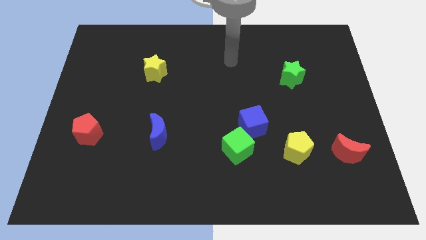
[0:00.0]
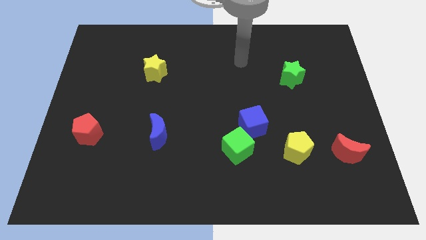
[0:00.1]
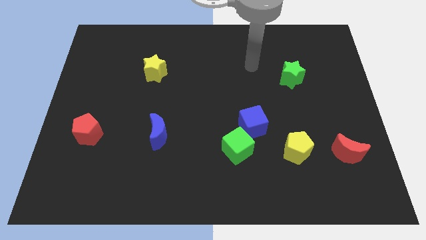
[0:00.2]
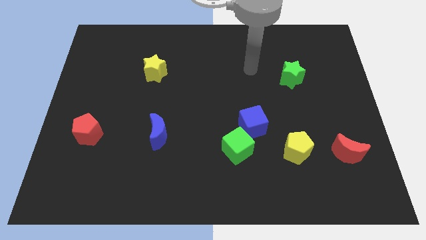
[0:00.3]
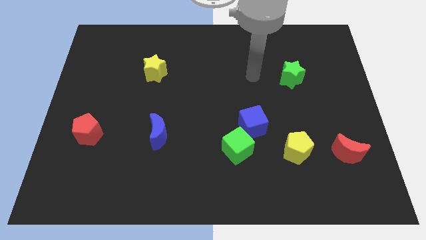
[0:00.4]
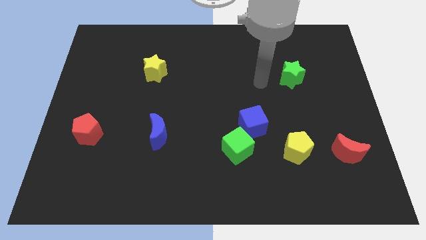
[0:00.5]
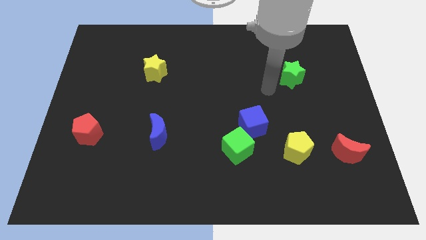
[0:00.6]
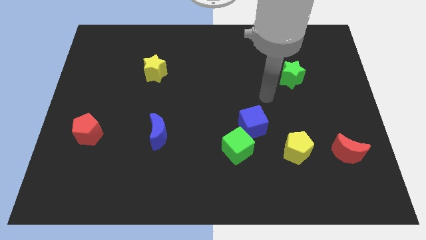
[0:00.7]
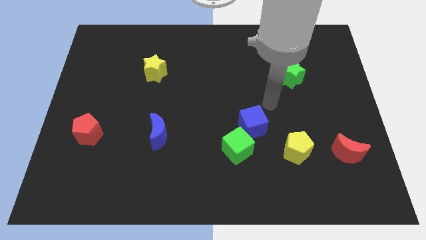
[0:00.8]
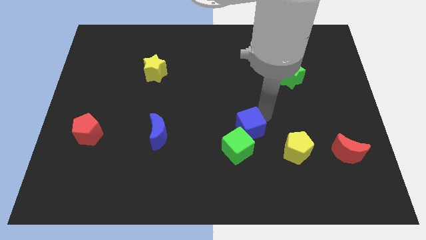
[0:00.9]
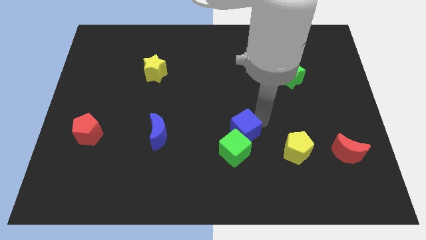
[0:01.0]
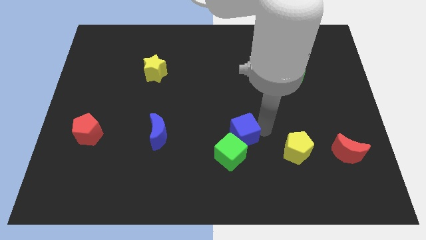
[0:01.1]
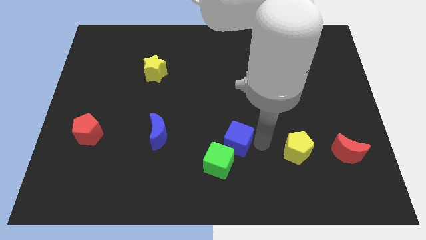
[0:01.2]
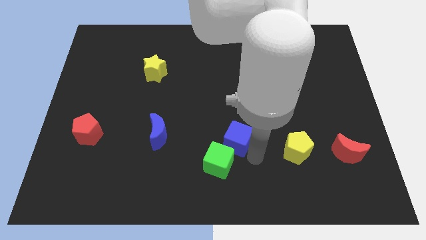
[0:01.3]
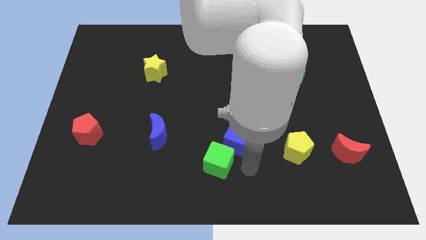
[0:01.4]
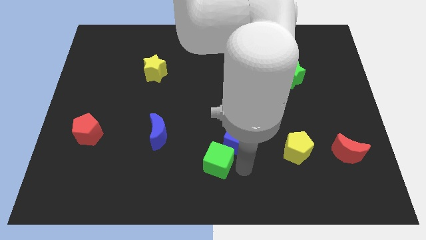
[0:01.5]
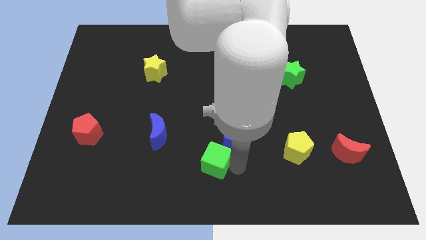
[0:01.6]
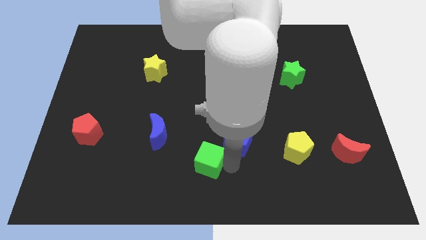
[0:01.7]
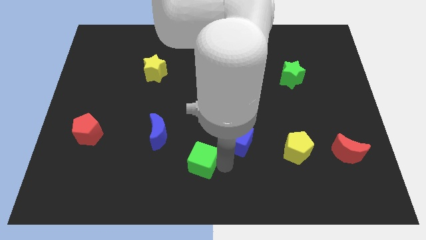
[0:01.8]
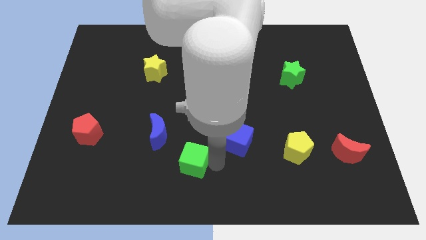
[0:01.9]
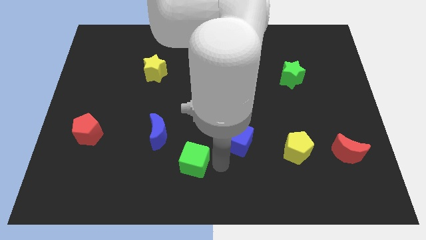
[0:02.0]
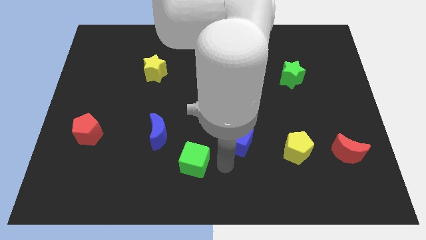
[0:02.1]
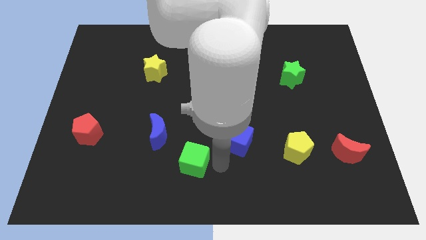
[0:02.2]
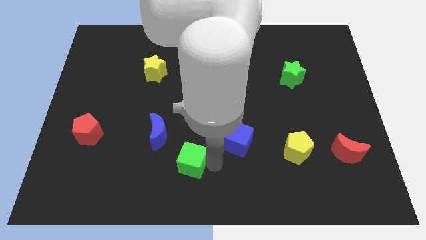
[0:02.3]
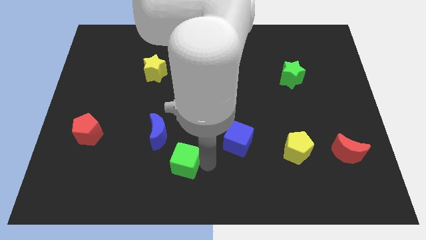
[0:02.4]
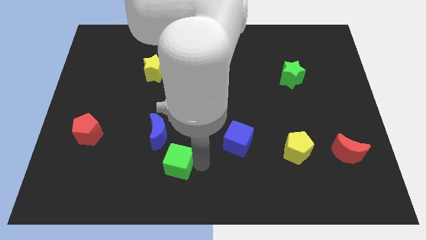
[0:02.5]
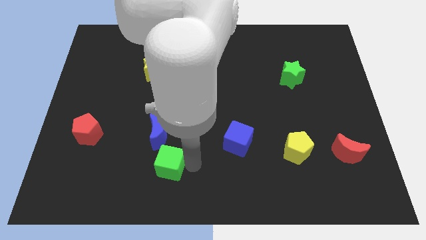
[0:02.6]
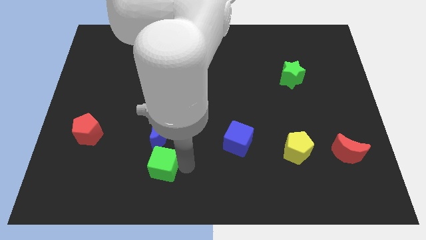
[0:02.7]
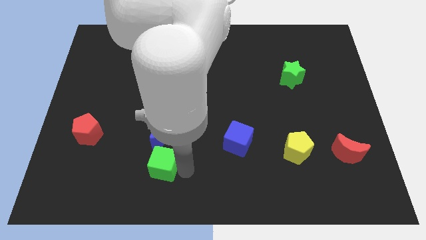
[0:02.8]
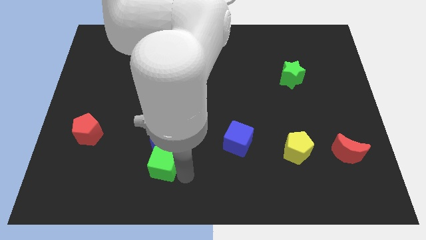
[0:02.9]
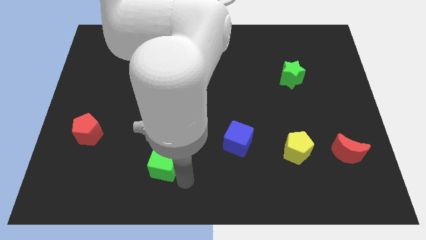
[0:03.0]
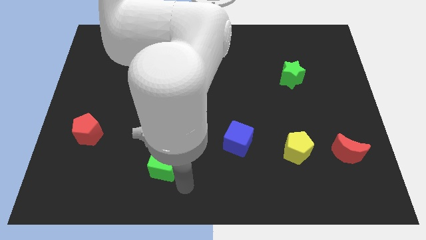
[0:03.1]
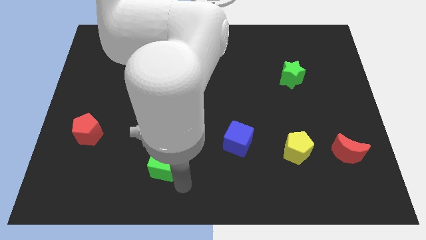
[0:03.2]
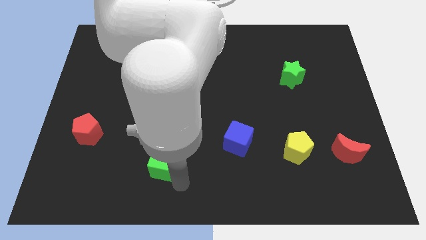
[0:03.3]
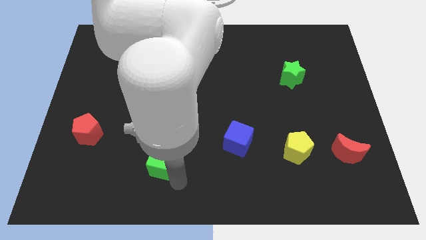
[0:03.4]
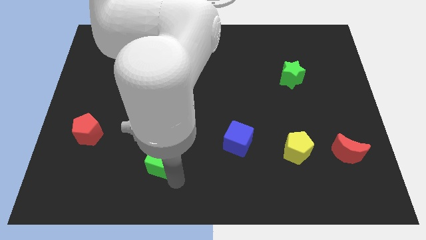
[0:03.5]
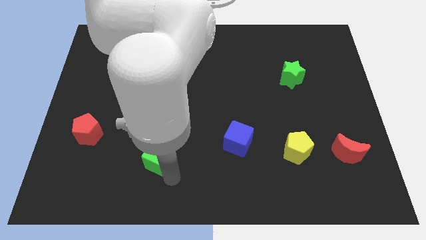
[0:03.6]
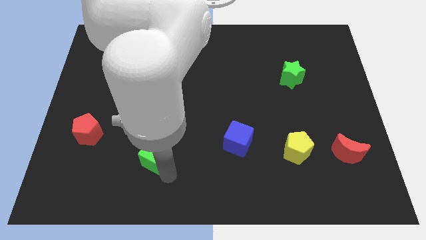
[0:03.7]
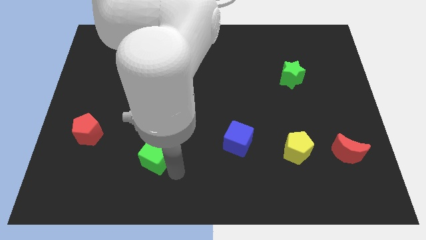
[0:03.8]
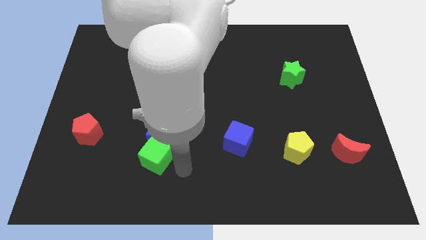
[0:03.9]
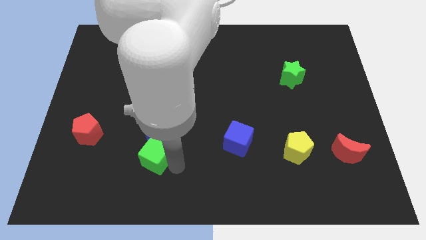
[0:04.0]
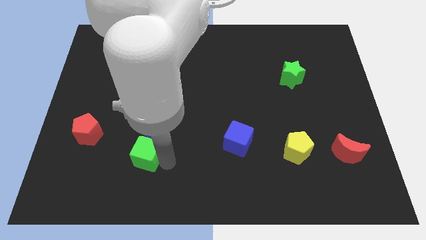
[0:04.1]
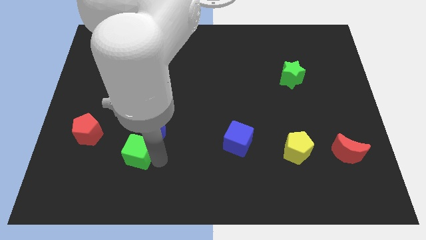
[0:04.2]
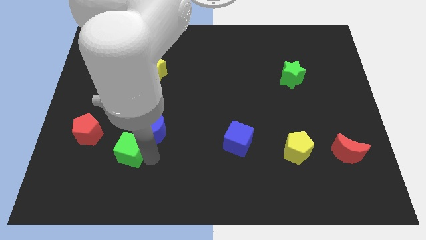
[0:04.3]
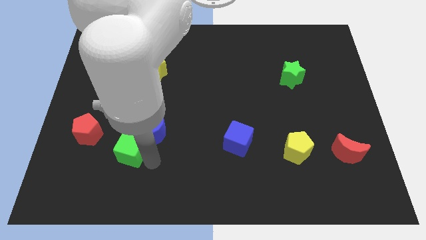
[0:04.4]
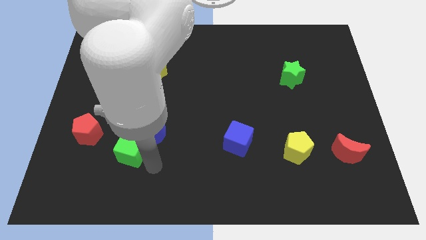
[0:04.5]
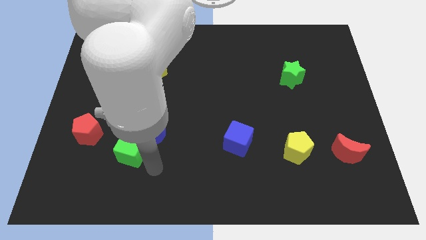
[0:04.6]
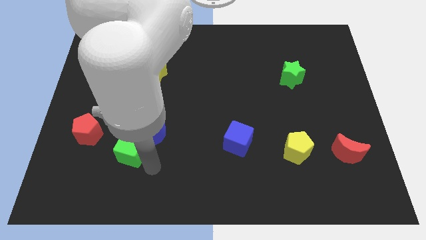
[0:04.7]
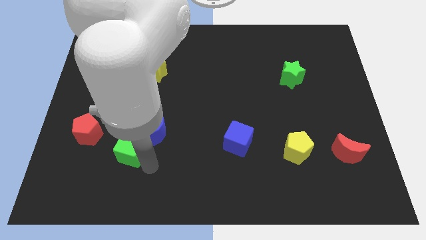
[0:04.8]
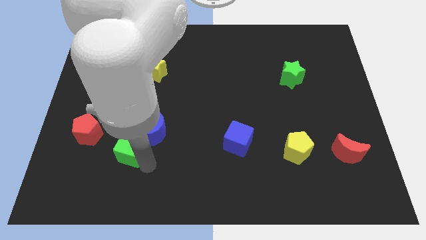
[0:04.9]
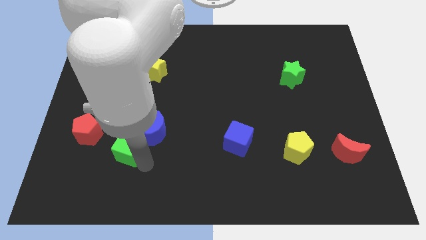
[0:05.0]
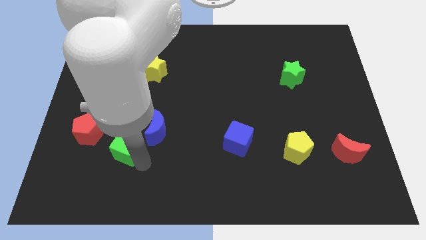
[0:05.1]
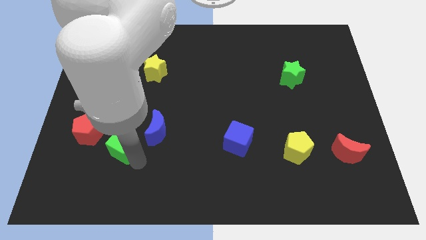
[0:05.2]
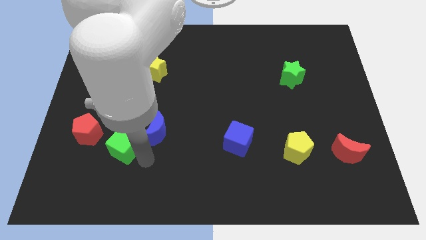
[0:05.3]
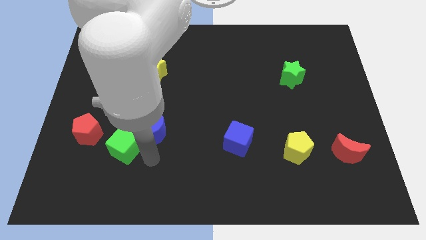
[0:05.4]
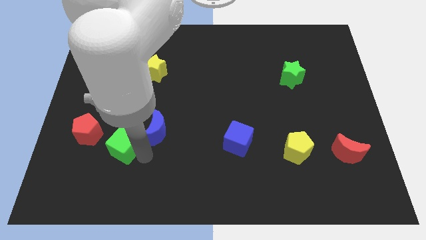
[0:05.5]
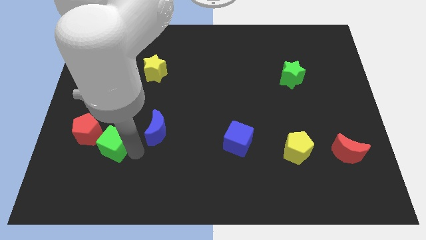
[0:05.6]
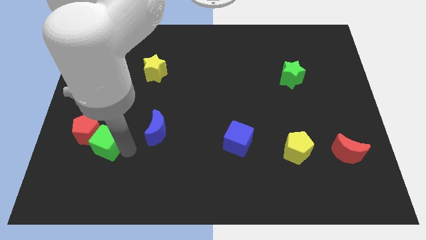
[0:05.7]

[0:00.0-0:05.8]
slide the green cube close to the red pentagon

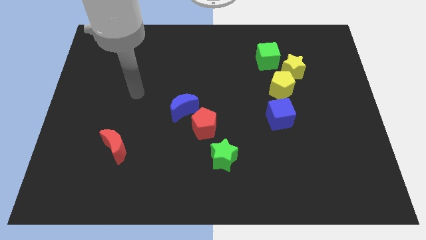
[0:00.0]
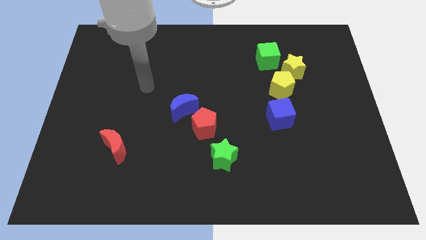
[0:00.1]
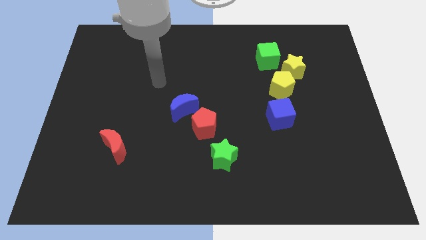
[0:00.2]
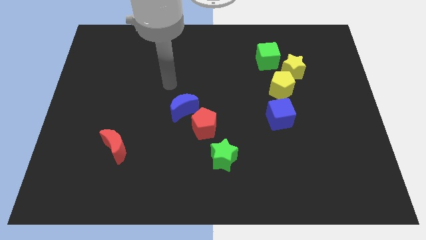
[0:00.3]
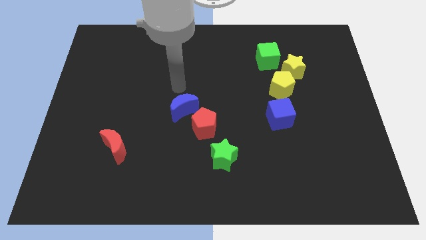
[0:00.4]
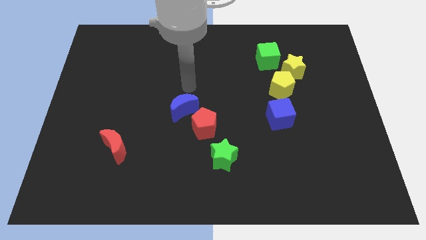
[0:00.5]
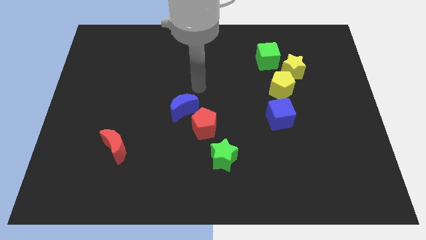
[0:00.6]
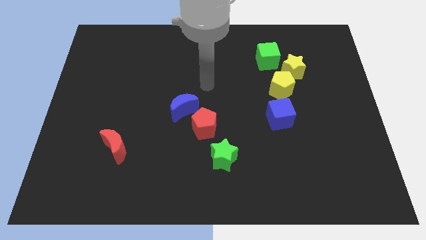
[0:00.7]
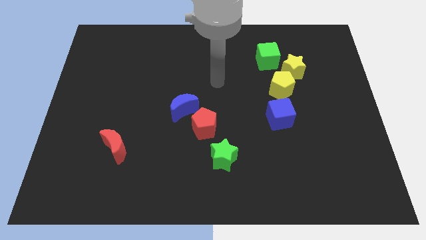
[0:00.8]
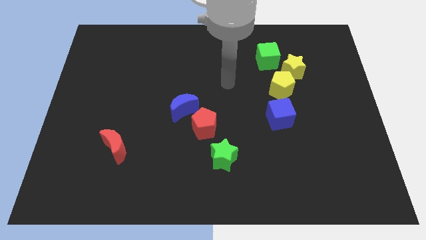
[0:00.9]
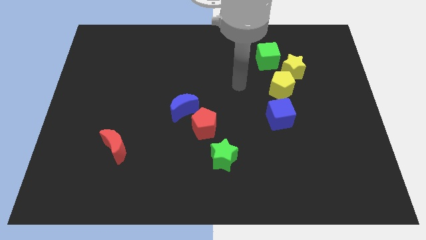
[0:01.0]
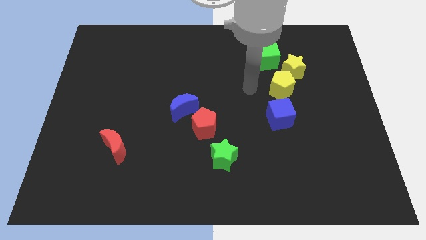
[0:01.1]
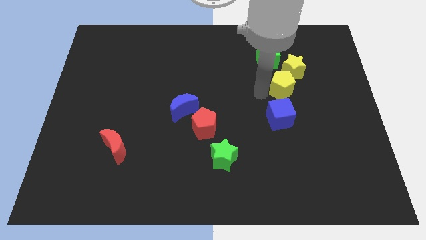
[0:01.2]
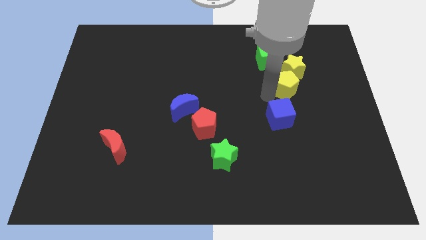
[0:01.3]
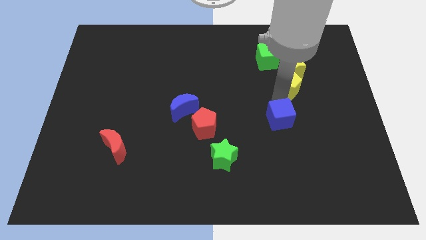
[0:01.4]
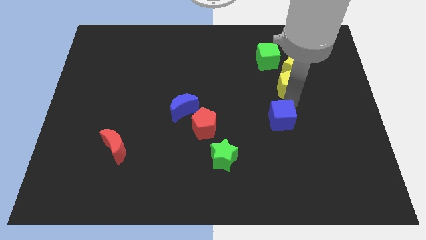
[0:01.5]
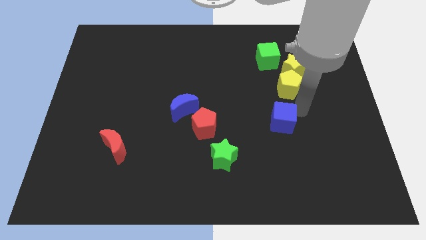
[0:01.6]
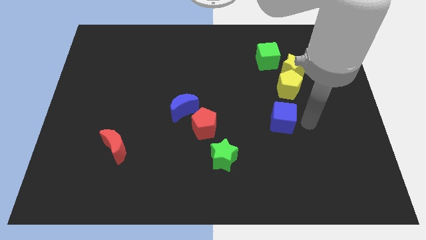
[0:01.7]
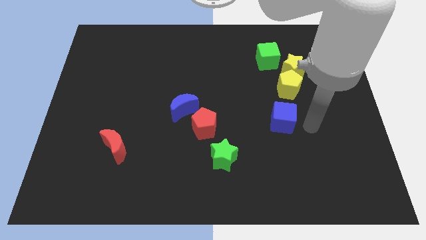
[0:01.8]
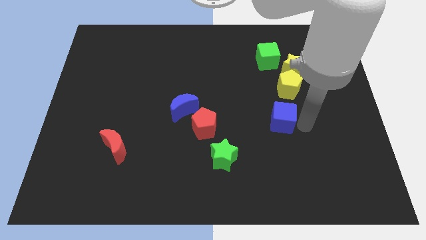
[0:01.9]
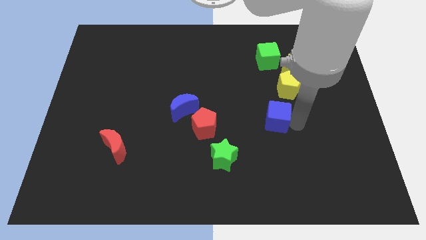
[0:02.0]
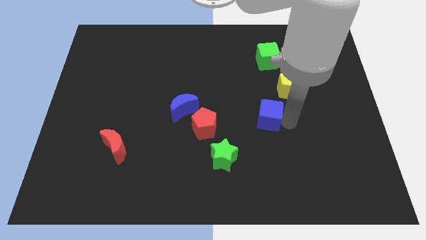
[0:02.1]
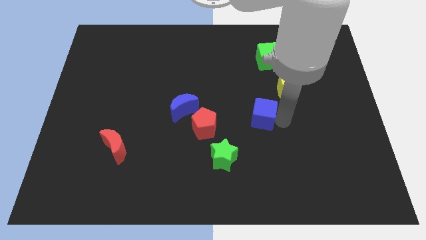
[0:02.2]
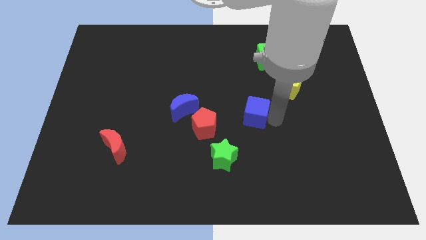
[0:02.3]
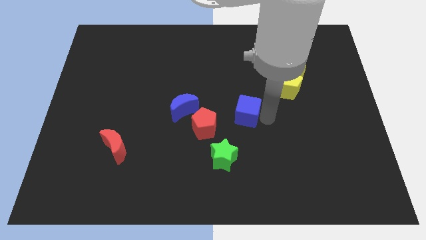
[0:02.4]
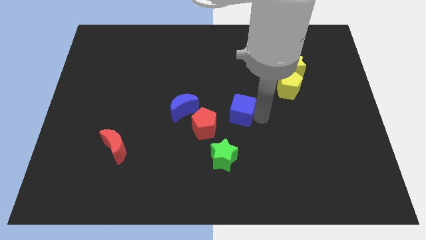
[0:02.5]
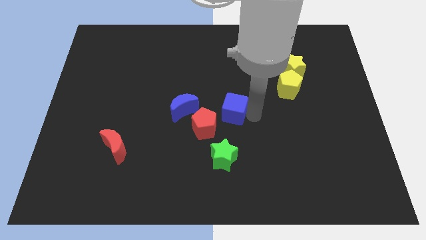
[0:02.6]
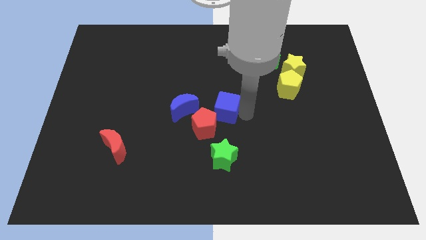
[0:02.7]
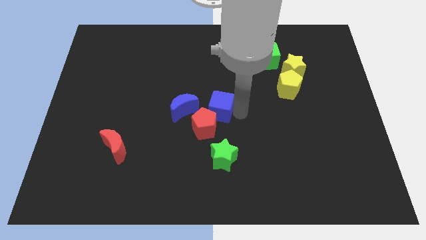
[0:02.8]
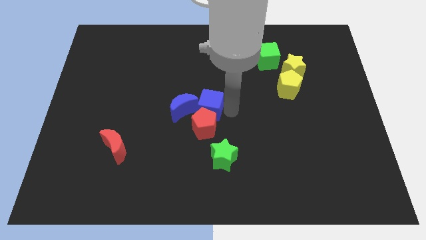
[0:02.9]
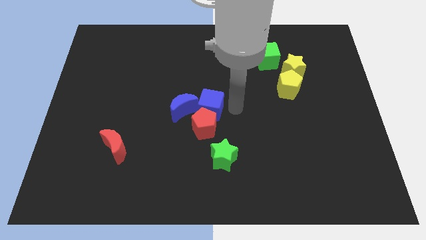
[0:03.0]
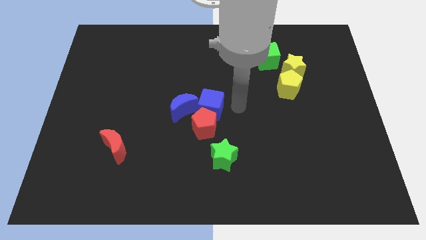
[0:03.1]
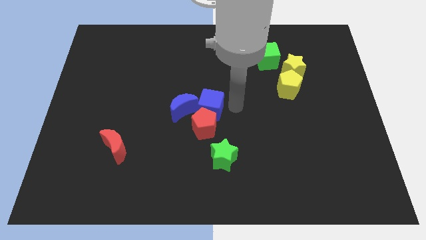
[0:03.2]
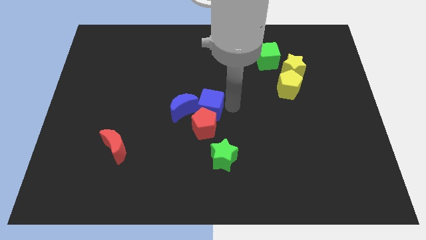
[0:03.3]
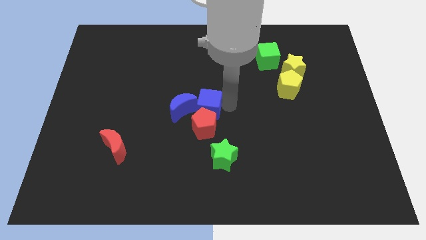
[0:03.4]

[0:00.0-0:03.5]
slide the blue cube towards the blue moon
